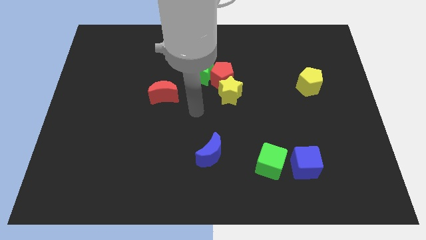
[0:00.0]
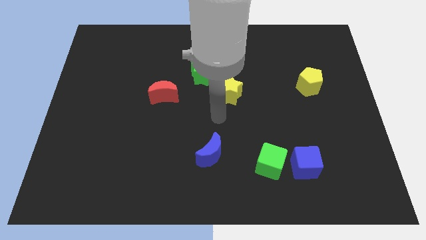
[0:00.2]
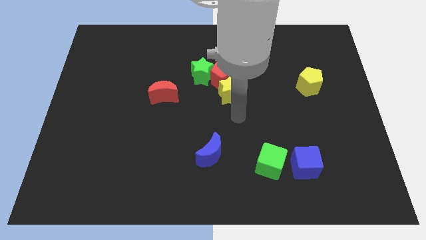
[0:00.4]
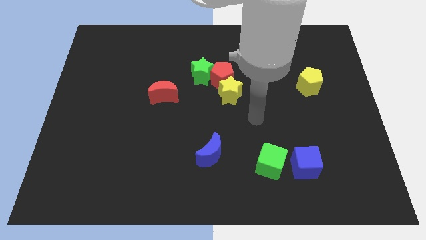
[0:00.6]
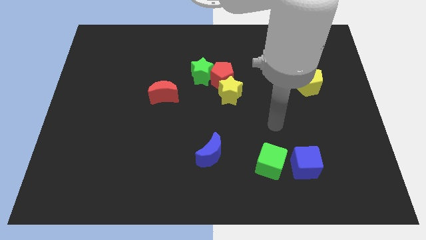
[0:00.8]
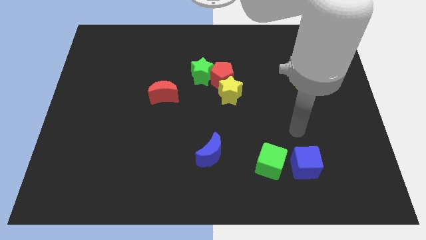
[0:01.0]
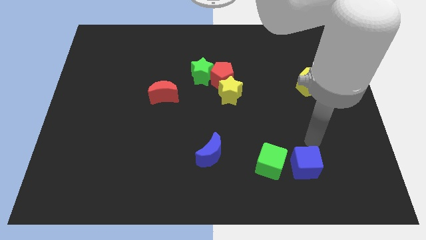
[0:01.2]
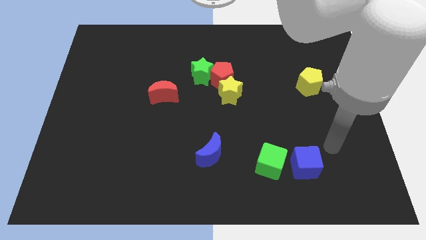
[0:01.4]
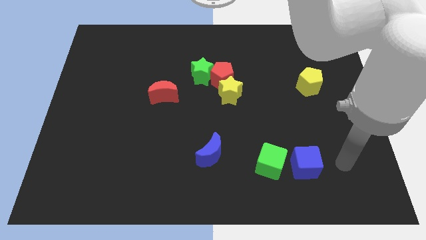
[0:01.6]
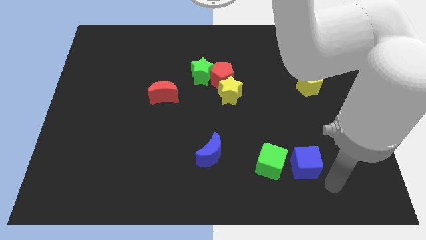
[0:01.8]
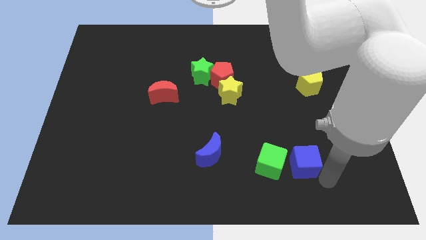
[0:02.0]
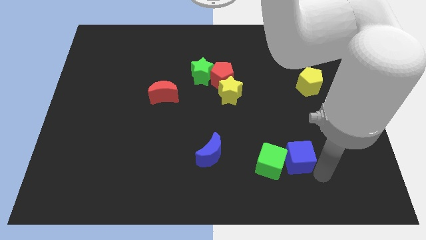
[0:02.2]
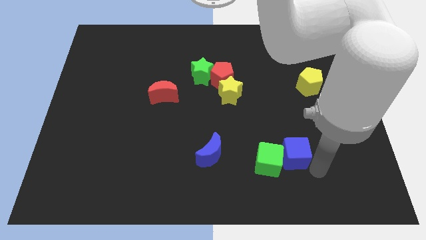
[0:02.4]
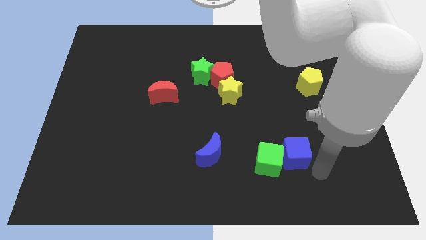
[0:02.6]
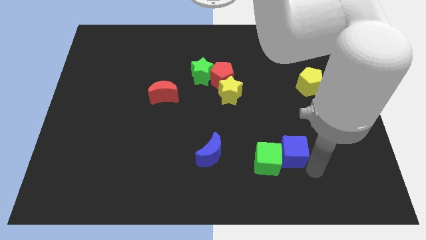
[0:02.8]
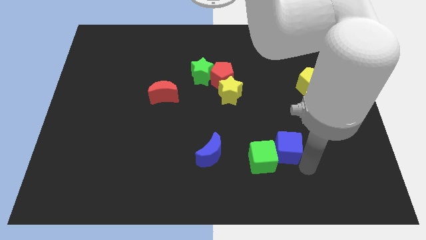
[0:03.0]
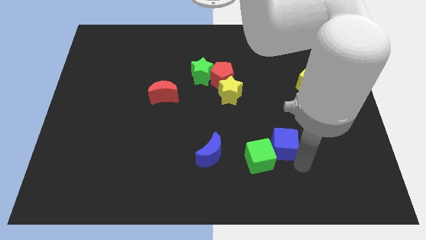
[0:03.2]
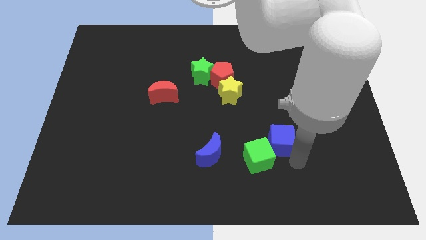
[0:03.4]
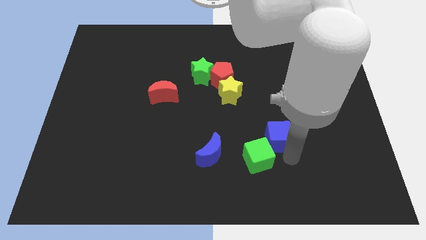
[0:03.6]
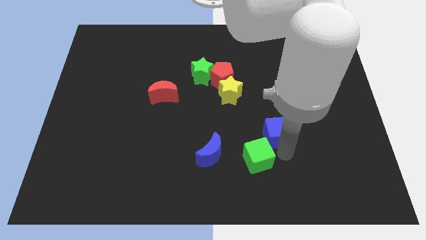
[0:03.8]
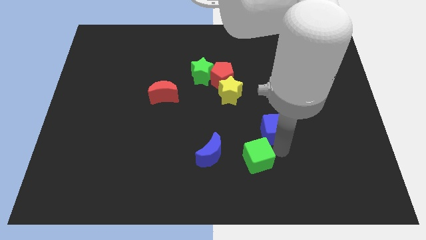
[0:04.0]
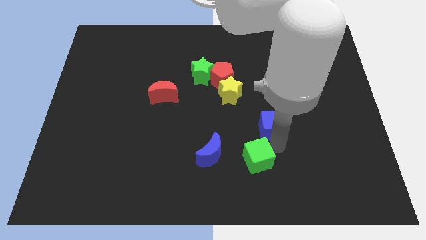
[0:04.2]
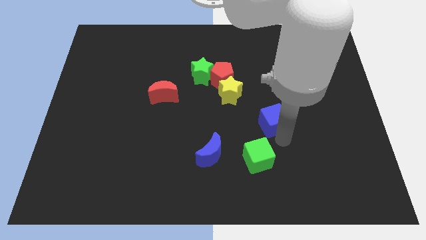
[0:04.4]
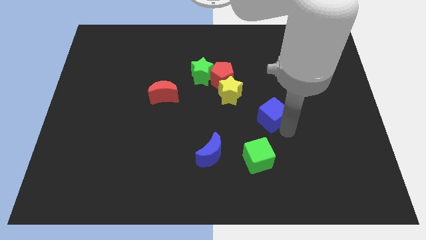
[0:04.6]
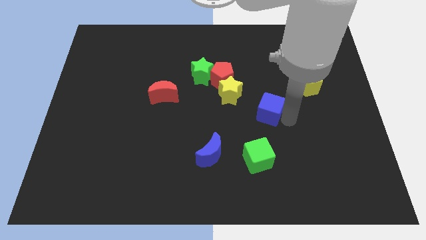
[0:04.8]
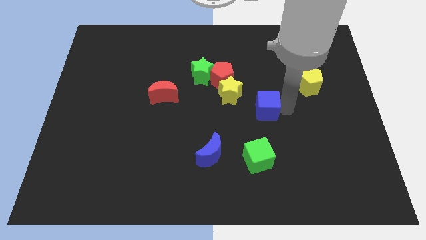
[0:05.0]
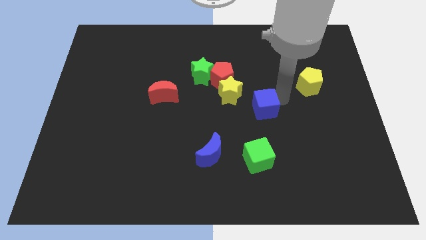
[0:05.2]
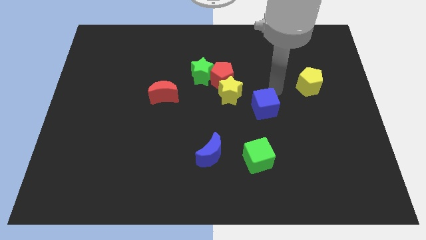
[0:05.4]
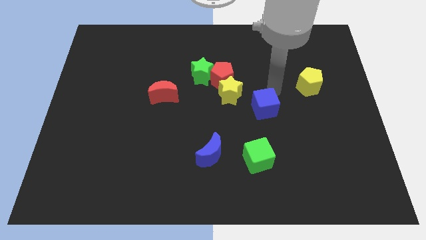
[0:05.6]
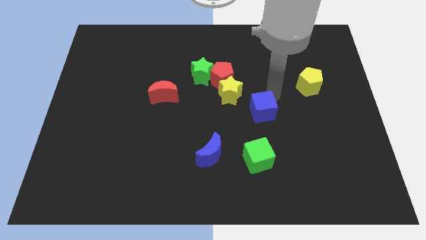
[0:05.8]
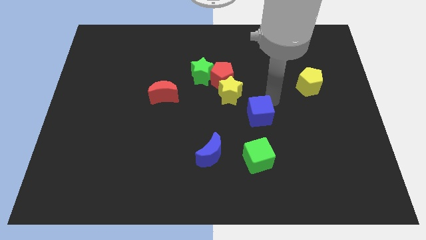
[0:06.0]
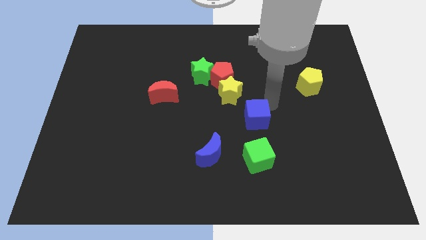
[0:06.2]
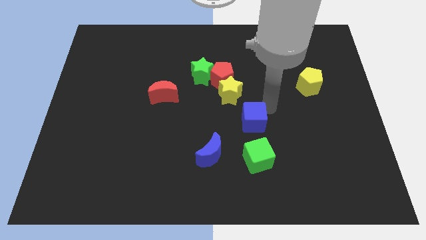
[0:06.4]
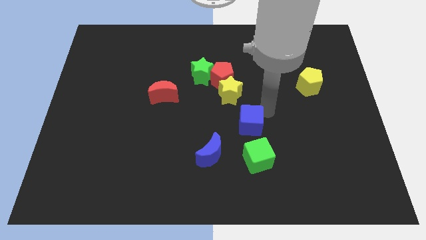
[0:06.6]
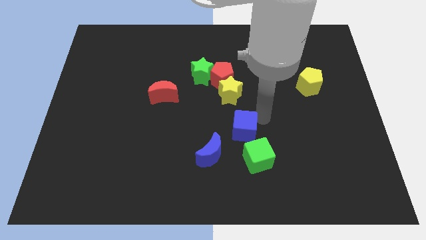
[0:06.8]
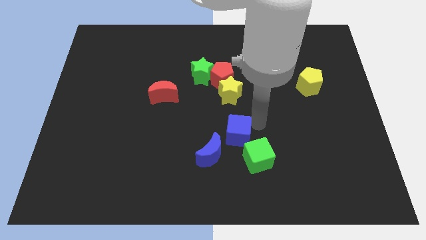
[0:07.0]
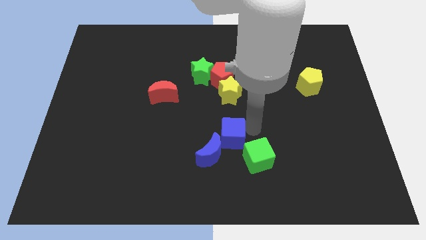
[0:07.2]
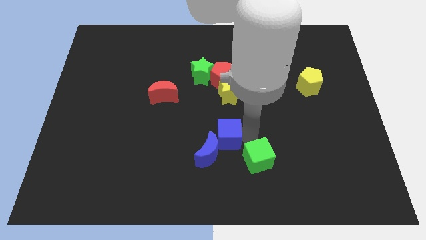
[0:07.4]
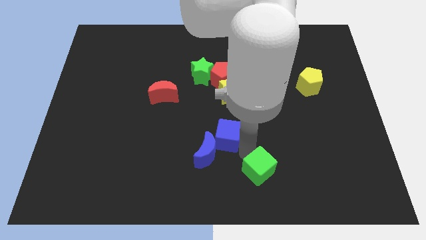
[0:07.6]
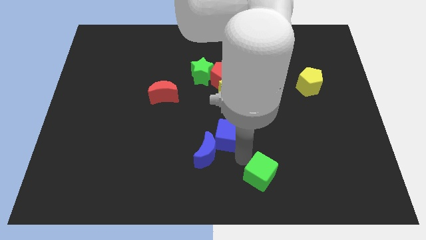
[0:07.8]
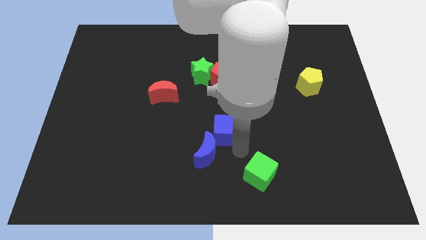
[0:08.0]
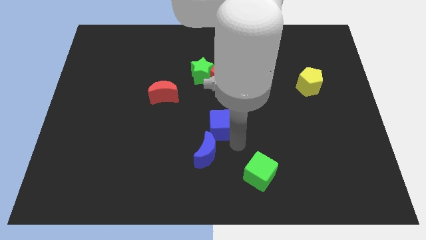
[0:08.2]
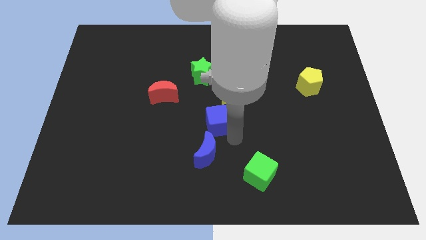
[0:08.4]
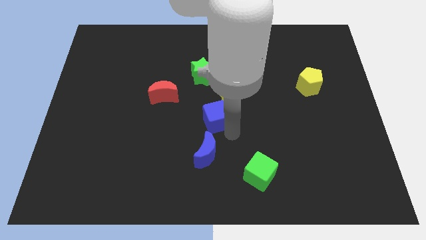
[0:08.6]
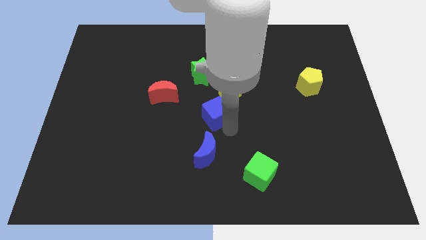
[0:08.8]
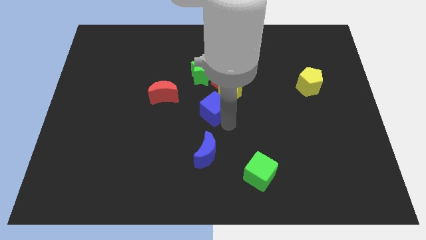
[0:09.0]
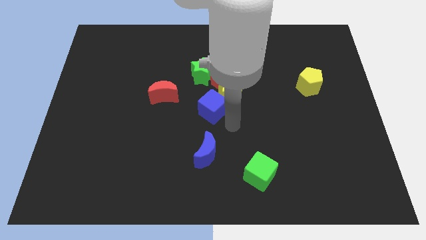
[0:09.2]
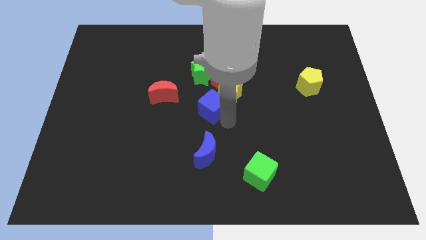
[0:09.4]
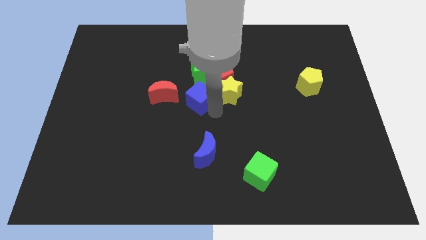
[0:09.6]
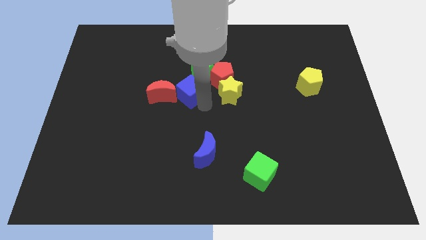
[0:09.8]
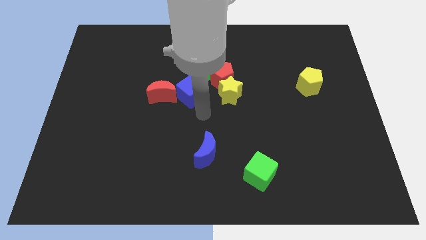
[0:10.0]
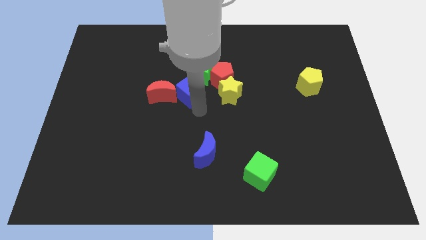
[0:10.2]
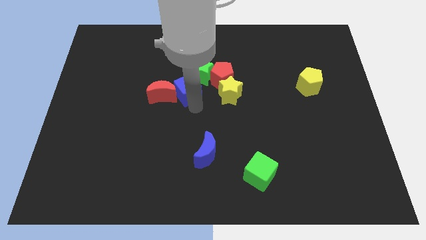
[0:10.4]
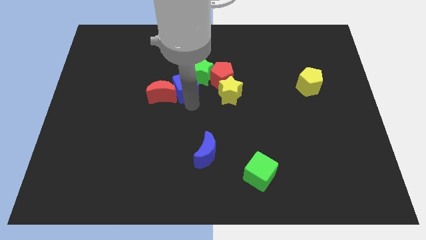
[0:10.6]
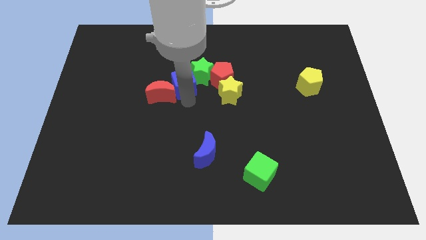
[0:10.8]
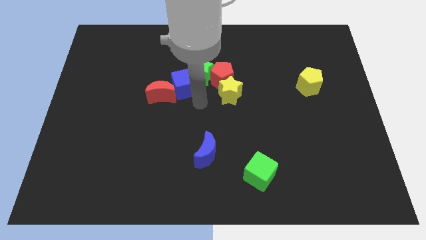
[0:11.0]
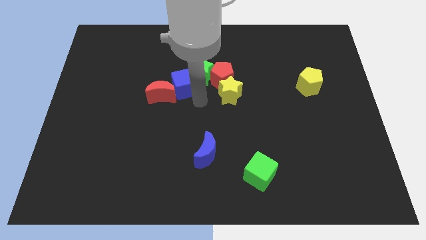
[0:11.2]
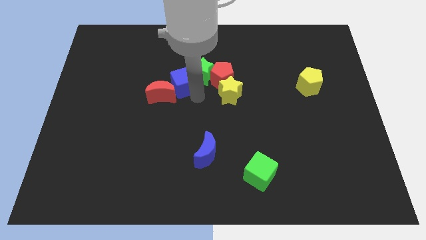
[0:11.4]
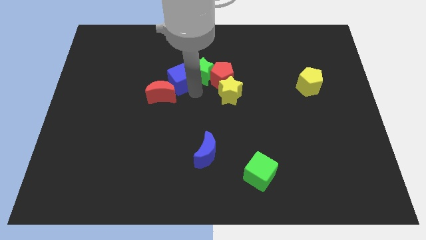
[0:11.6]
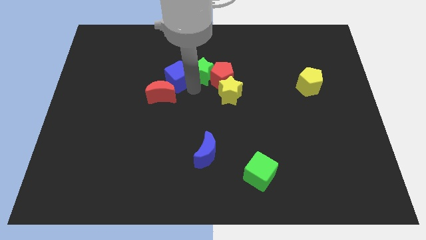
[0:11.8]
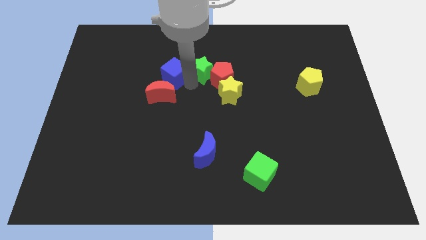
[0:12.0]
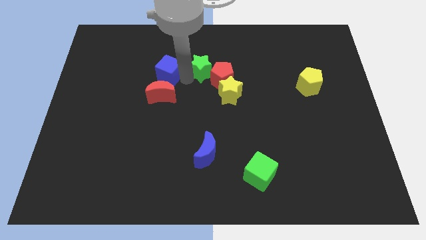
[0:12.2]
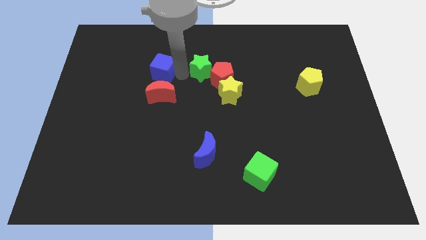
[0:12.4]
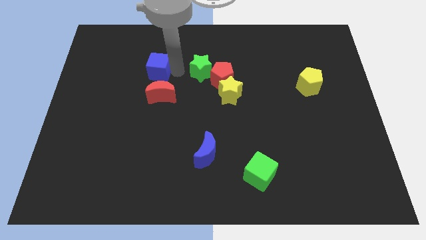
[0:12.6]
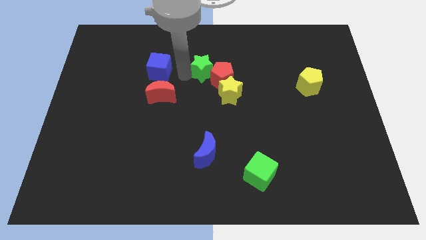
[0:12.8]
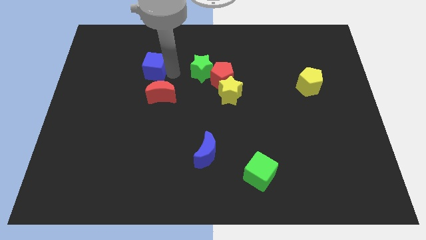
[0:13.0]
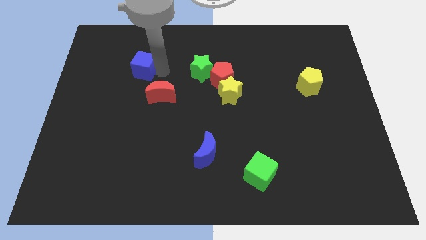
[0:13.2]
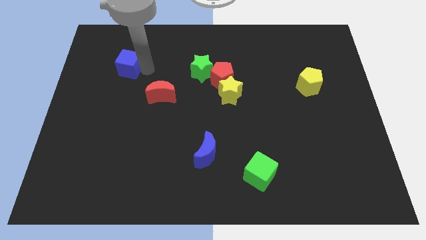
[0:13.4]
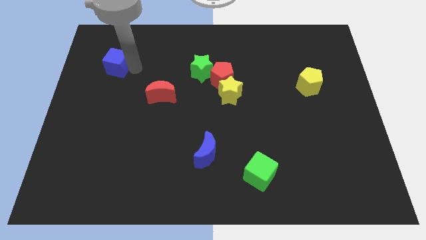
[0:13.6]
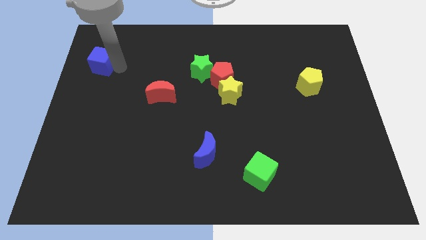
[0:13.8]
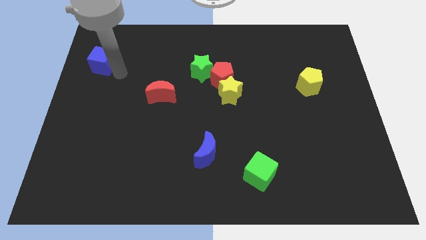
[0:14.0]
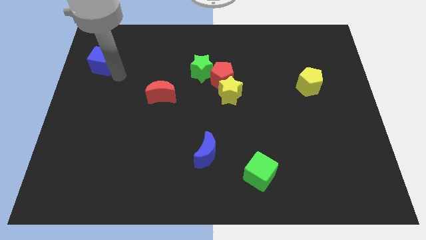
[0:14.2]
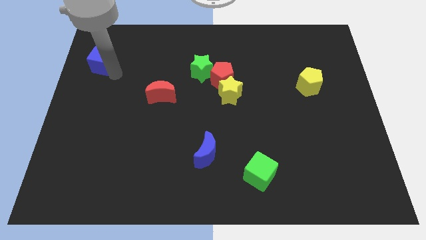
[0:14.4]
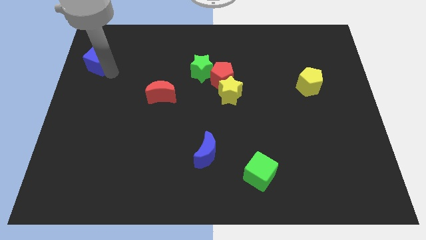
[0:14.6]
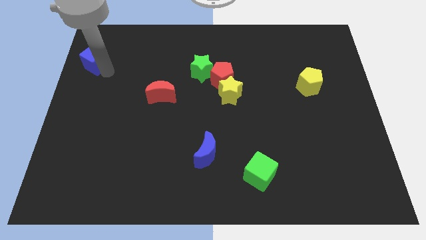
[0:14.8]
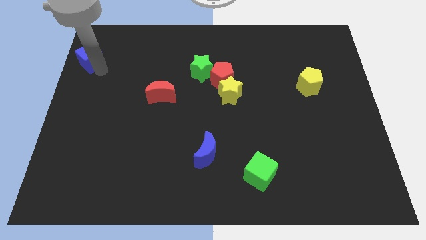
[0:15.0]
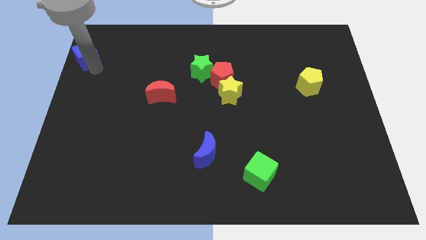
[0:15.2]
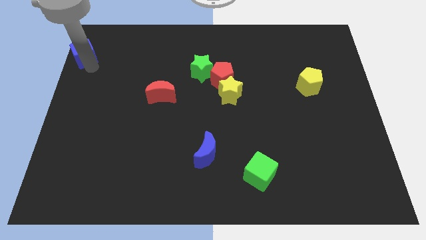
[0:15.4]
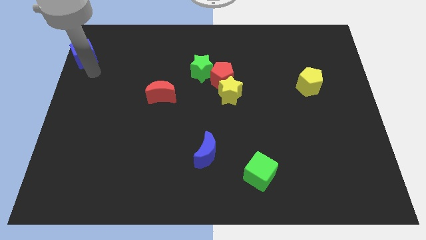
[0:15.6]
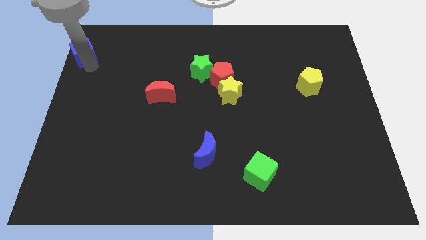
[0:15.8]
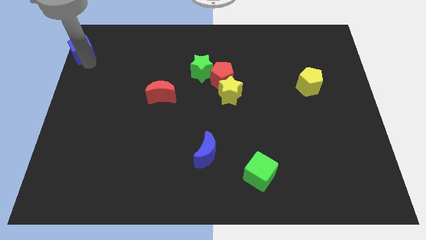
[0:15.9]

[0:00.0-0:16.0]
put the blue cube to the upper left corner
